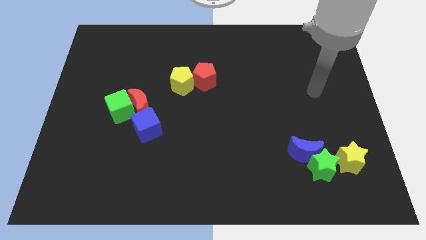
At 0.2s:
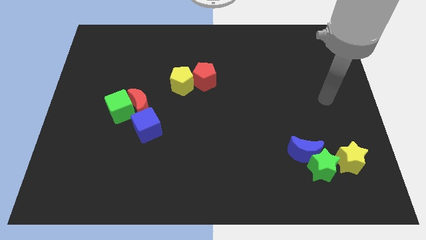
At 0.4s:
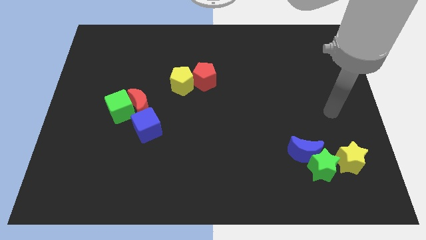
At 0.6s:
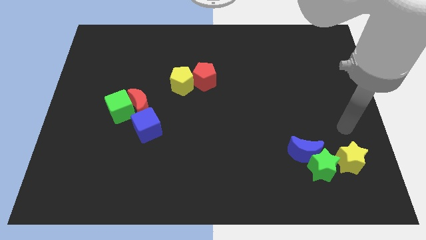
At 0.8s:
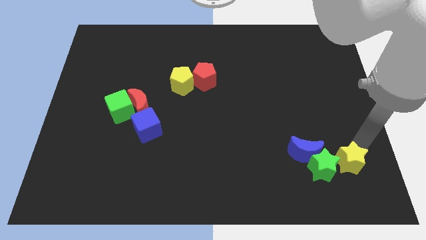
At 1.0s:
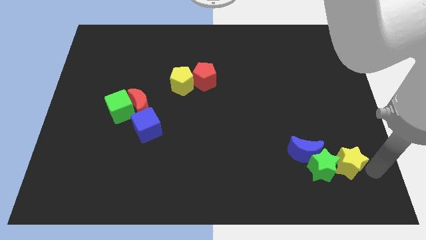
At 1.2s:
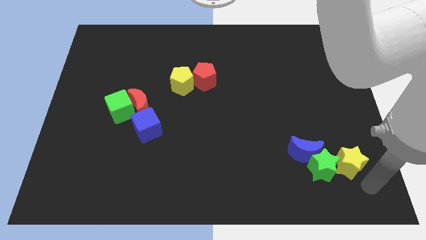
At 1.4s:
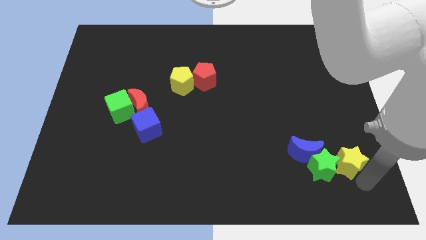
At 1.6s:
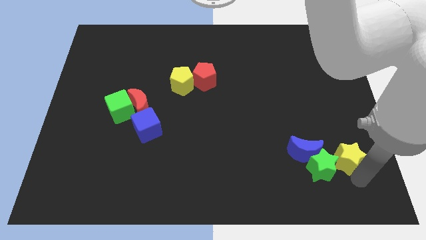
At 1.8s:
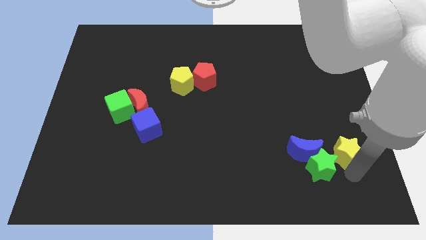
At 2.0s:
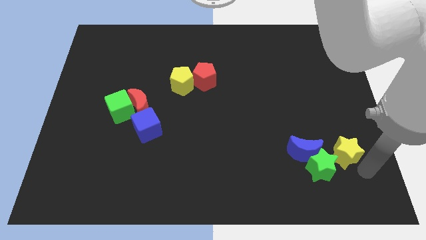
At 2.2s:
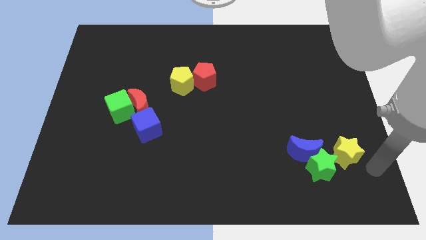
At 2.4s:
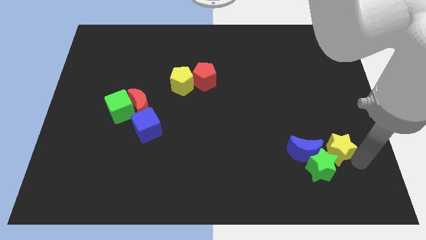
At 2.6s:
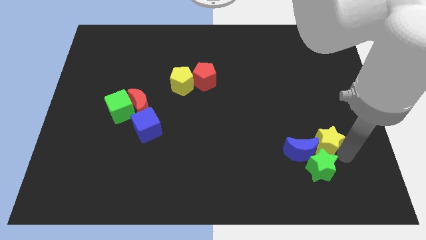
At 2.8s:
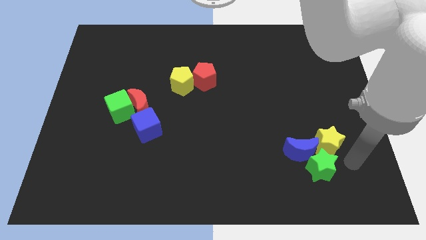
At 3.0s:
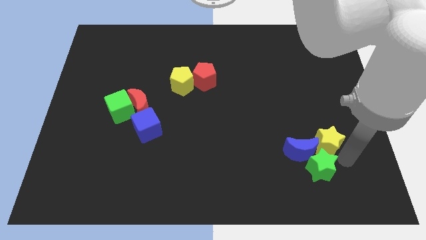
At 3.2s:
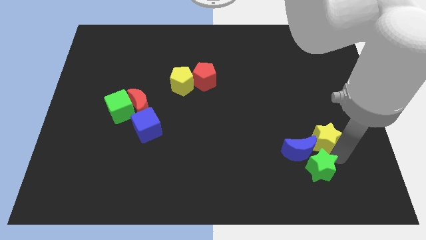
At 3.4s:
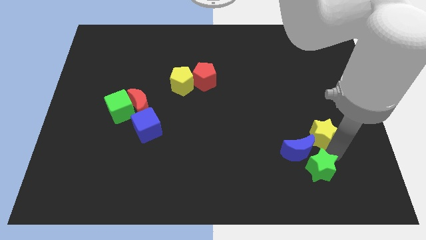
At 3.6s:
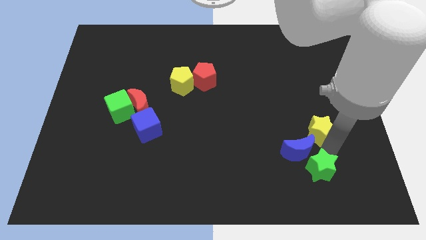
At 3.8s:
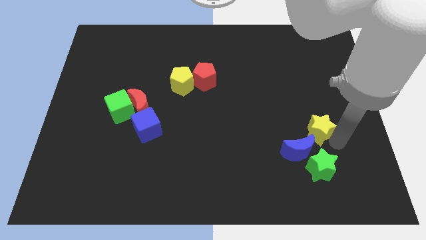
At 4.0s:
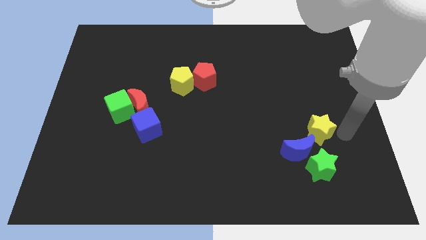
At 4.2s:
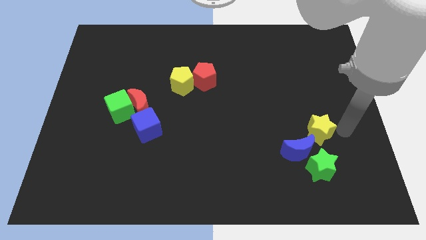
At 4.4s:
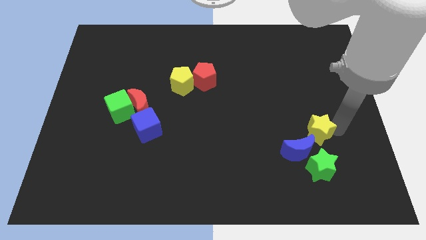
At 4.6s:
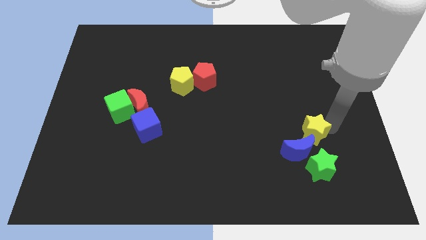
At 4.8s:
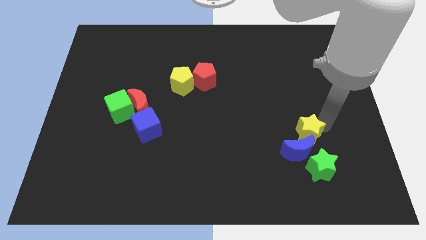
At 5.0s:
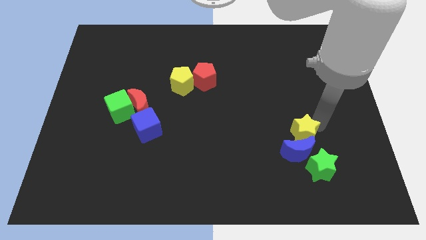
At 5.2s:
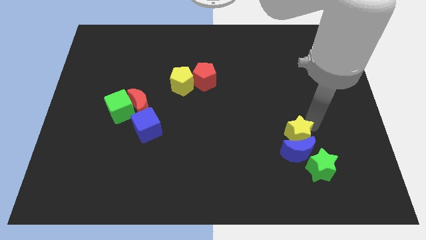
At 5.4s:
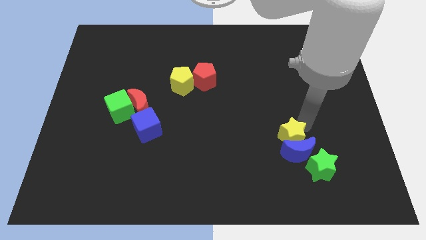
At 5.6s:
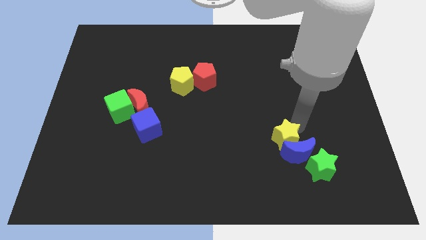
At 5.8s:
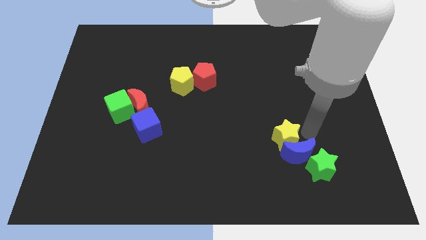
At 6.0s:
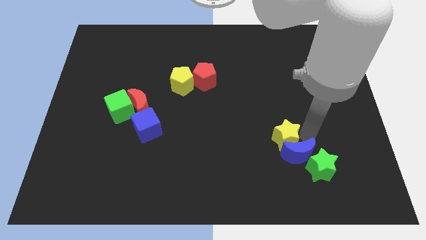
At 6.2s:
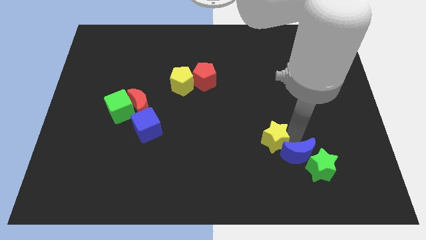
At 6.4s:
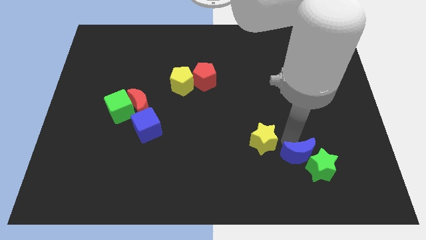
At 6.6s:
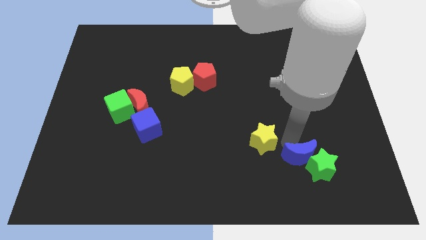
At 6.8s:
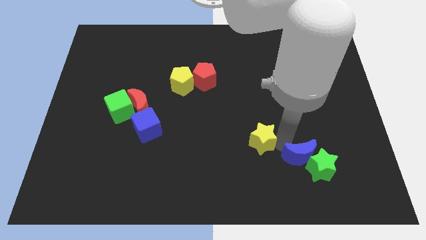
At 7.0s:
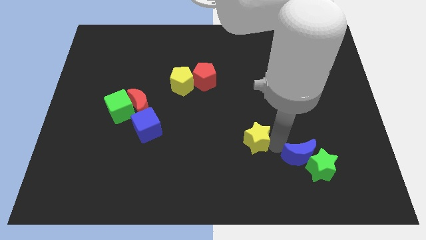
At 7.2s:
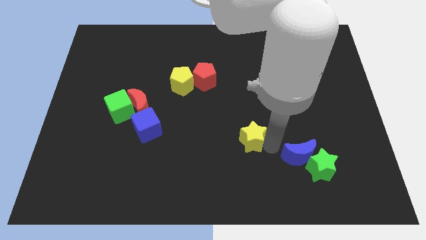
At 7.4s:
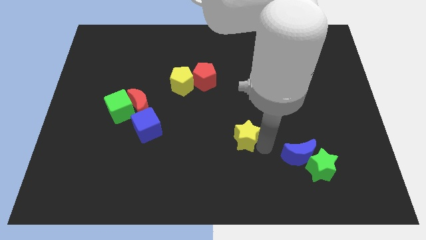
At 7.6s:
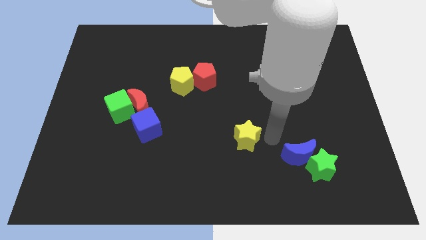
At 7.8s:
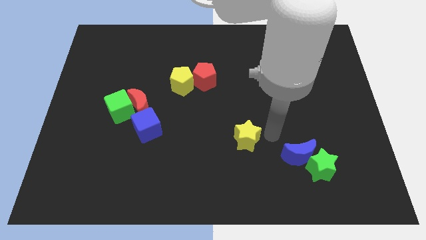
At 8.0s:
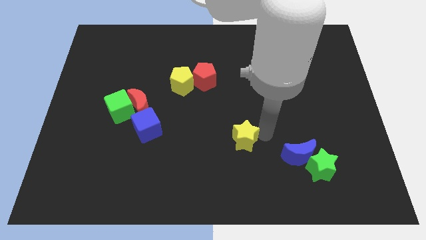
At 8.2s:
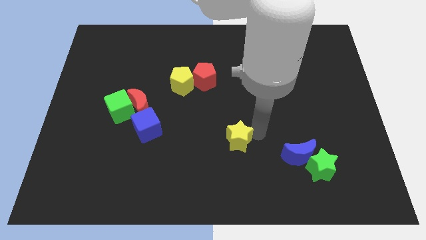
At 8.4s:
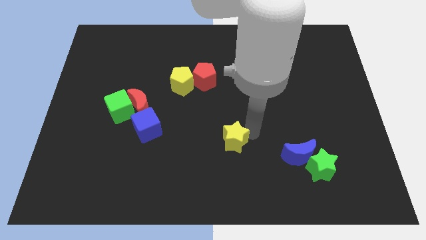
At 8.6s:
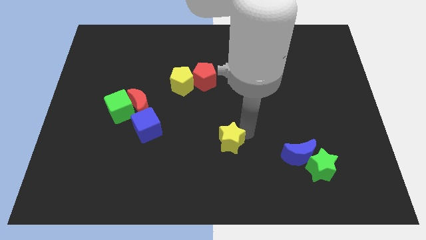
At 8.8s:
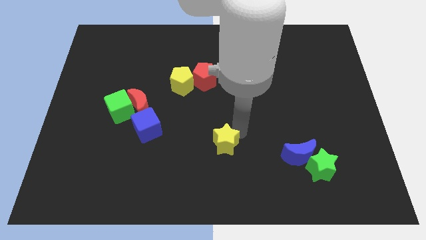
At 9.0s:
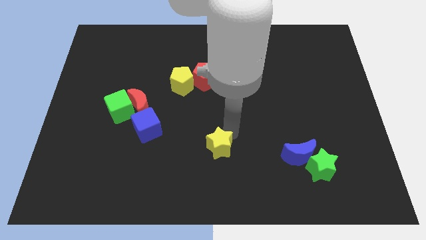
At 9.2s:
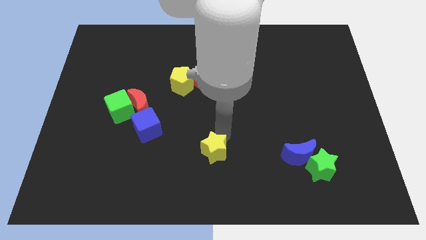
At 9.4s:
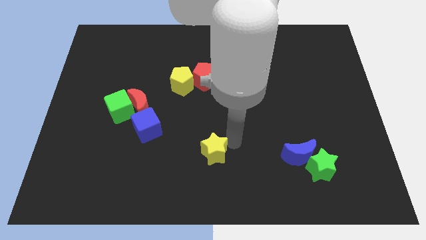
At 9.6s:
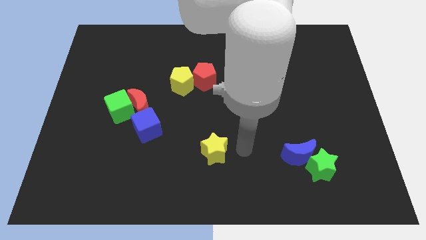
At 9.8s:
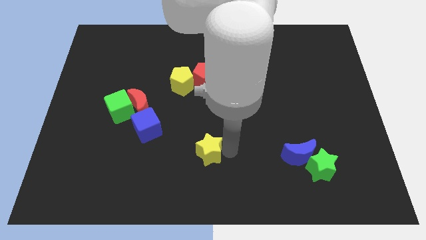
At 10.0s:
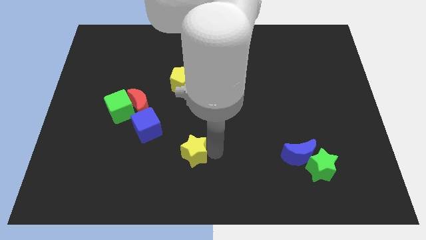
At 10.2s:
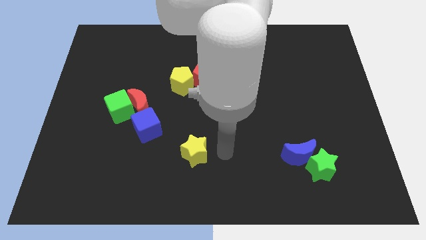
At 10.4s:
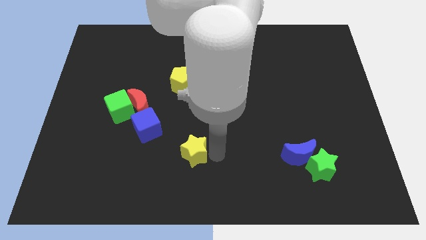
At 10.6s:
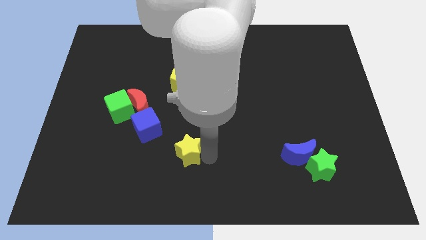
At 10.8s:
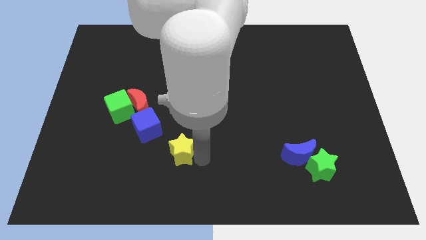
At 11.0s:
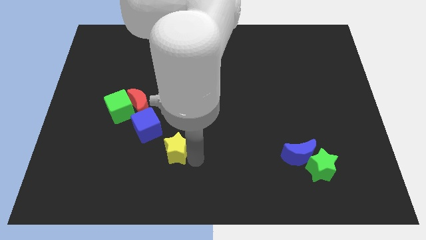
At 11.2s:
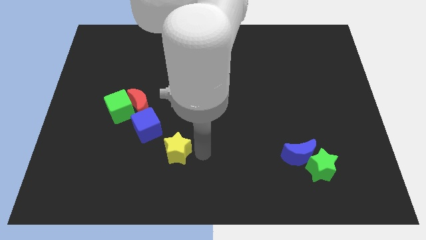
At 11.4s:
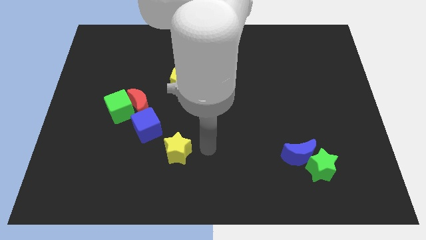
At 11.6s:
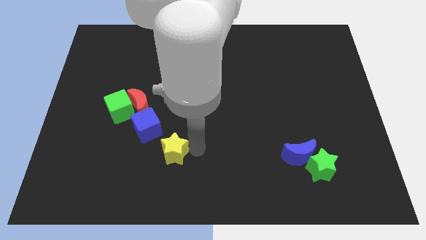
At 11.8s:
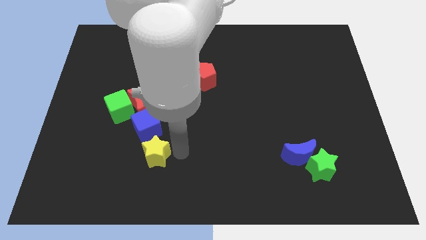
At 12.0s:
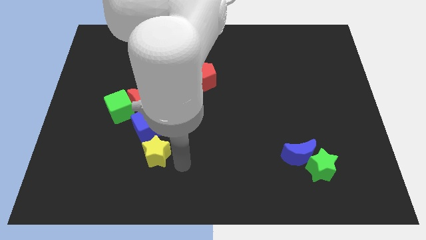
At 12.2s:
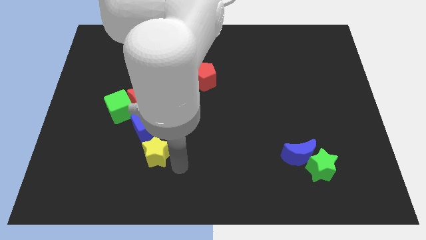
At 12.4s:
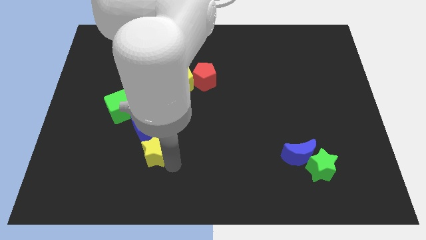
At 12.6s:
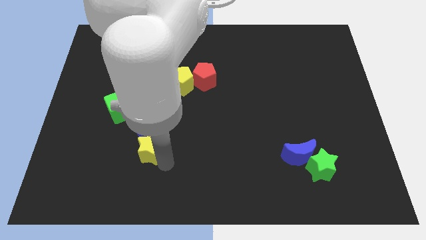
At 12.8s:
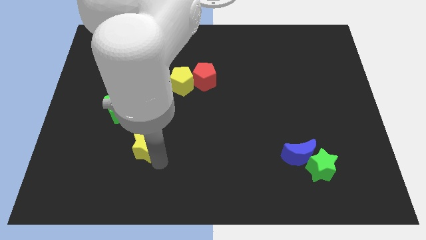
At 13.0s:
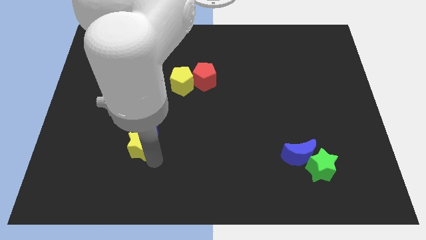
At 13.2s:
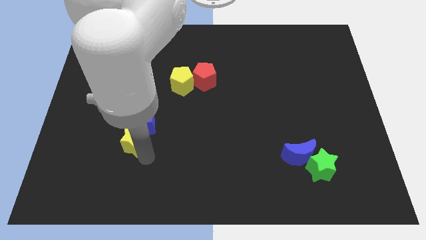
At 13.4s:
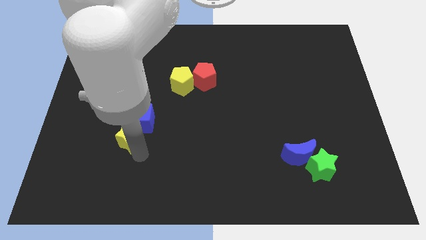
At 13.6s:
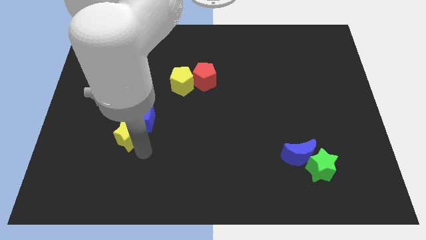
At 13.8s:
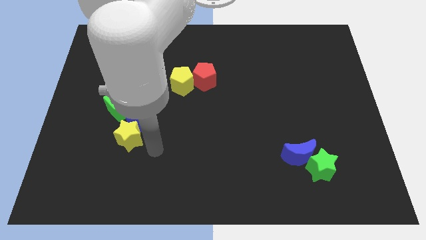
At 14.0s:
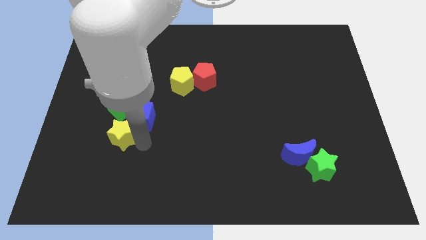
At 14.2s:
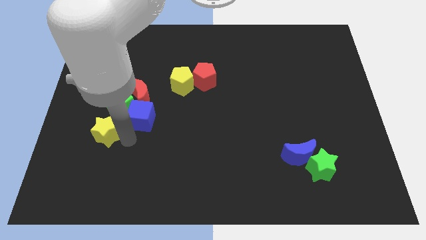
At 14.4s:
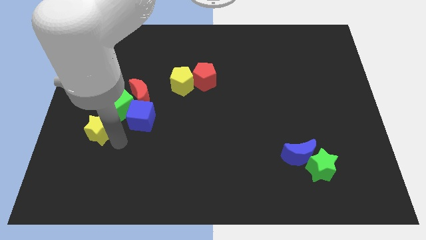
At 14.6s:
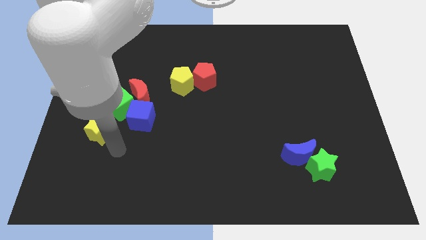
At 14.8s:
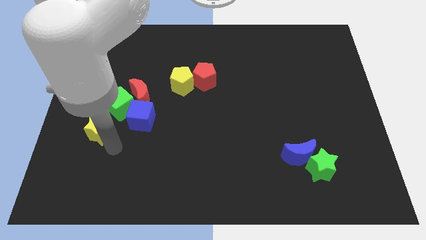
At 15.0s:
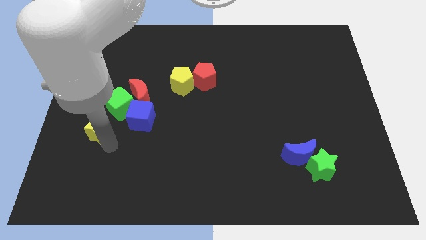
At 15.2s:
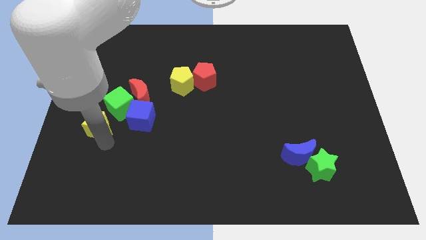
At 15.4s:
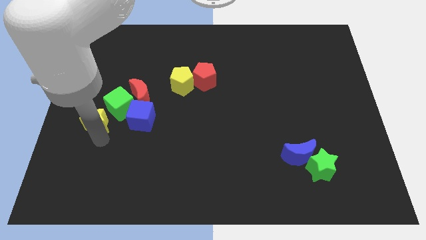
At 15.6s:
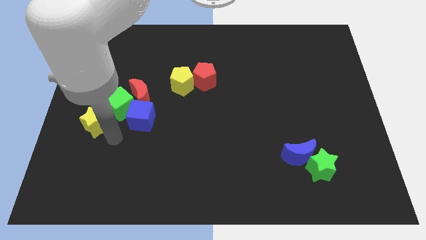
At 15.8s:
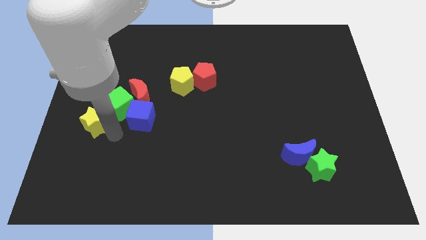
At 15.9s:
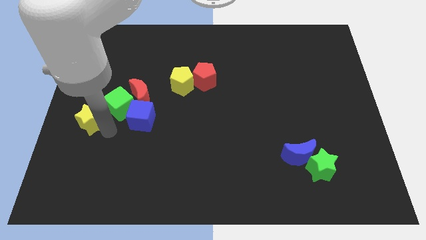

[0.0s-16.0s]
put the yellow star to the left side
